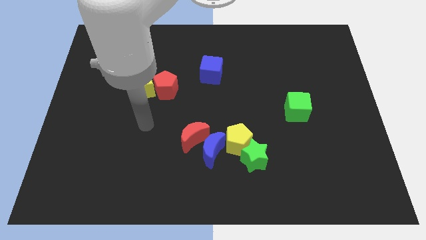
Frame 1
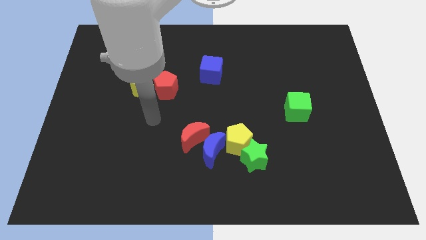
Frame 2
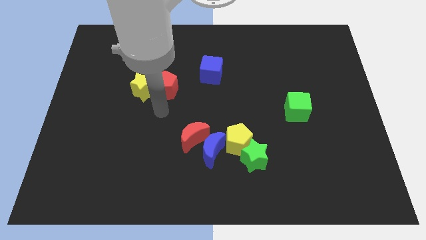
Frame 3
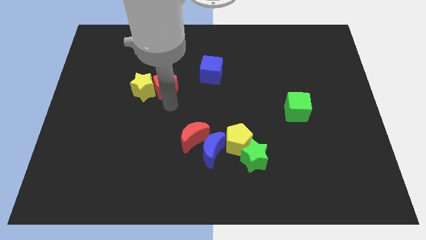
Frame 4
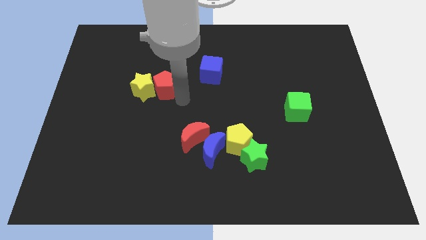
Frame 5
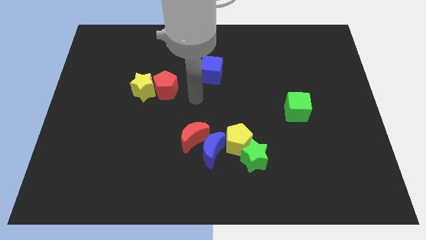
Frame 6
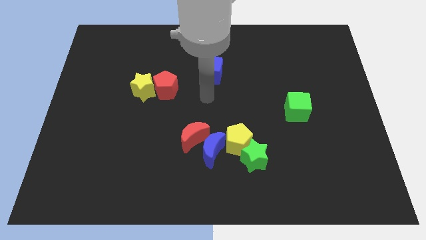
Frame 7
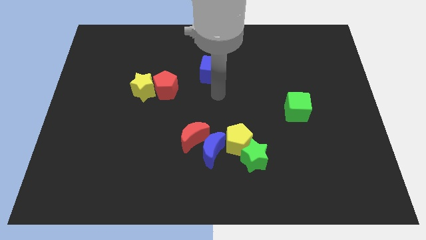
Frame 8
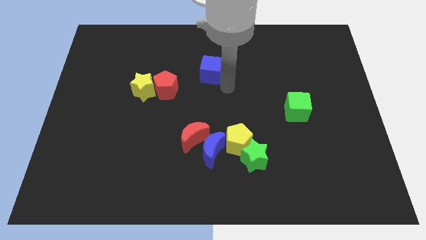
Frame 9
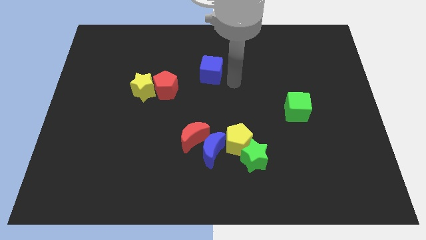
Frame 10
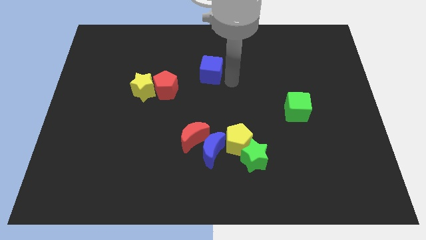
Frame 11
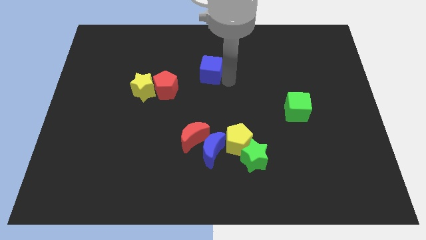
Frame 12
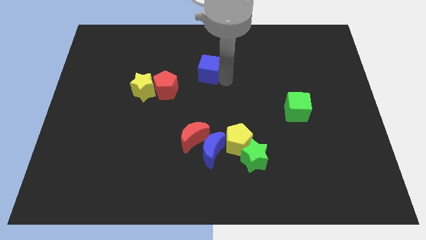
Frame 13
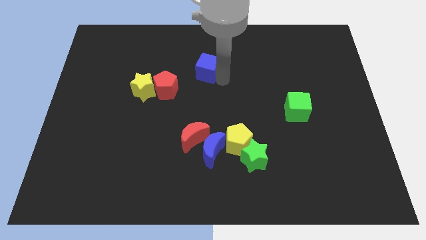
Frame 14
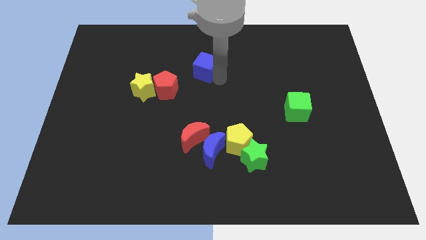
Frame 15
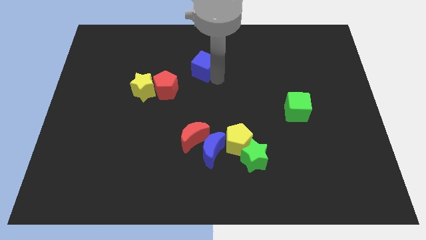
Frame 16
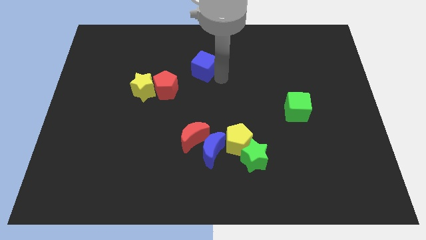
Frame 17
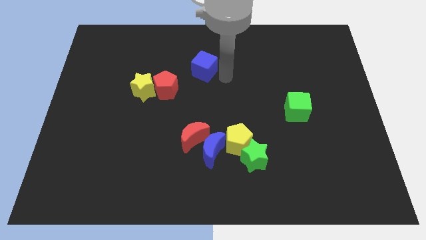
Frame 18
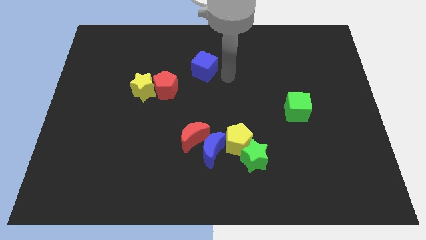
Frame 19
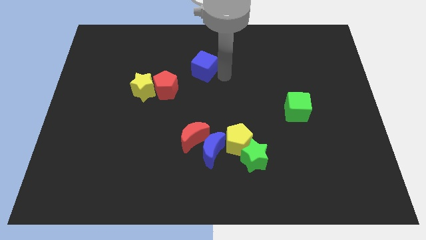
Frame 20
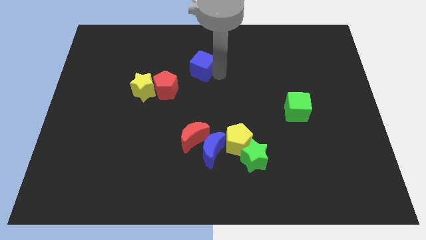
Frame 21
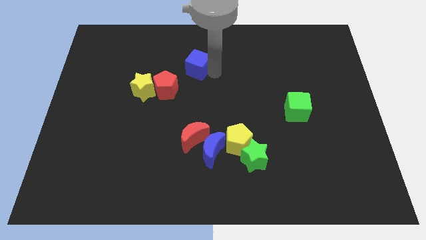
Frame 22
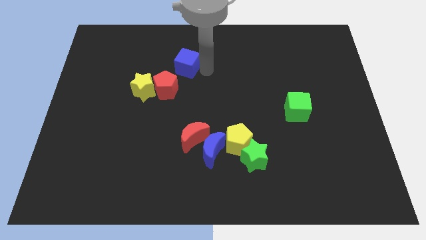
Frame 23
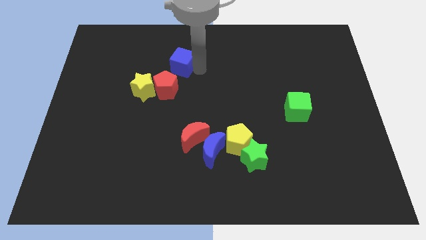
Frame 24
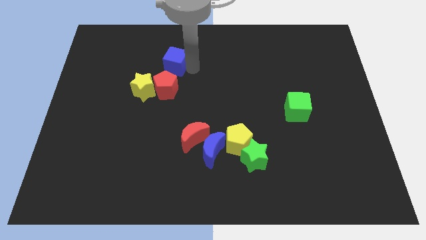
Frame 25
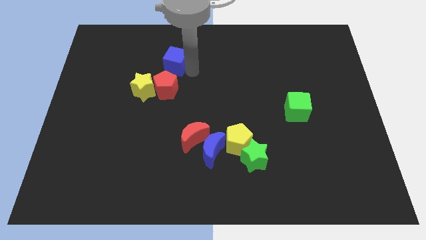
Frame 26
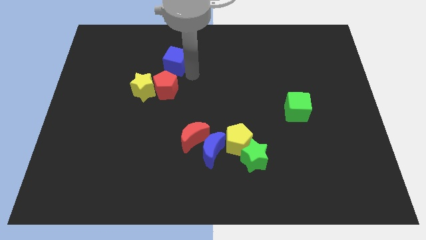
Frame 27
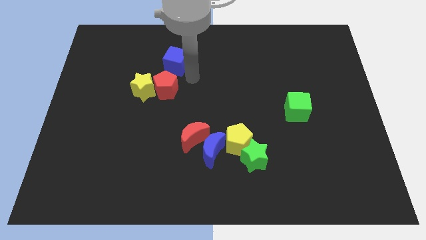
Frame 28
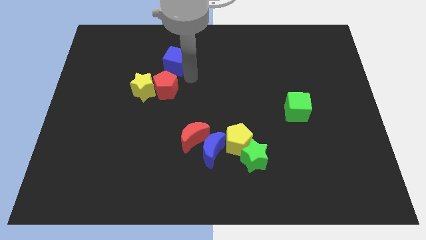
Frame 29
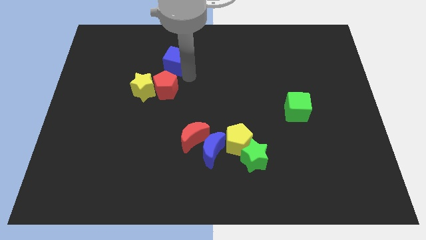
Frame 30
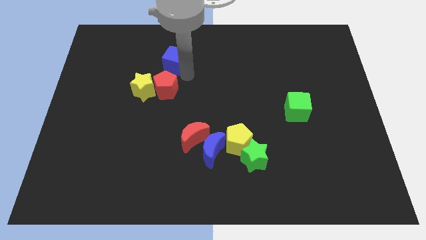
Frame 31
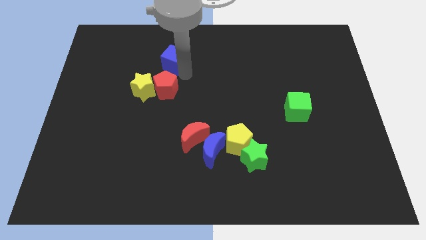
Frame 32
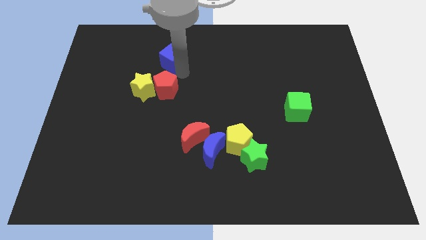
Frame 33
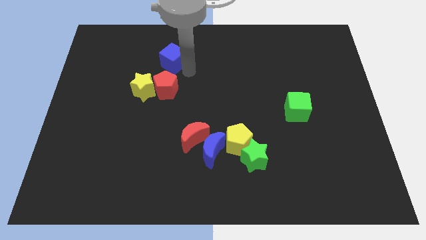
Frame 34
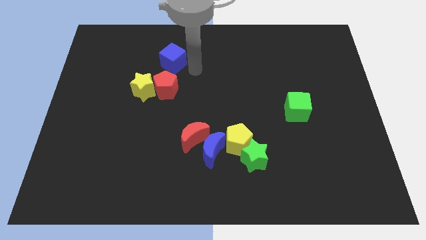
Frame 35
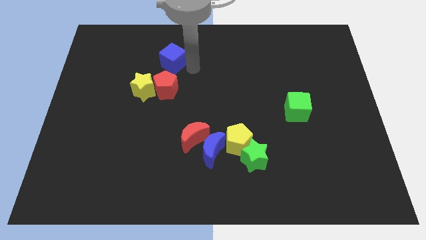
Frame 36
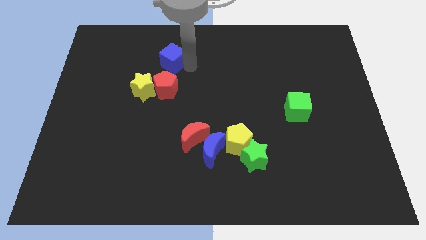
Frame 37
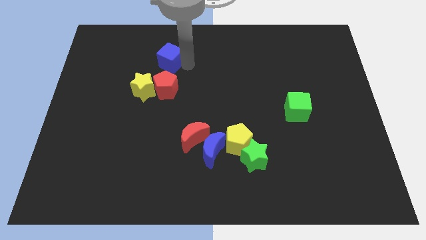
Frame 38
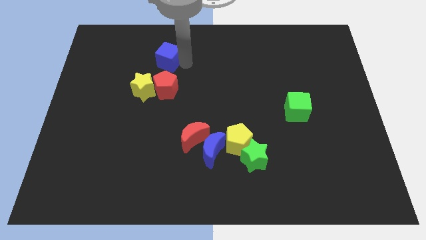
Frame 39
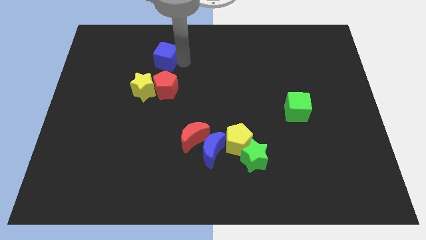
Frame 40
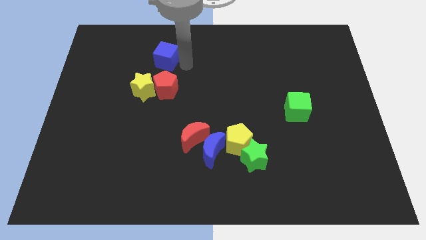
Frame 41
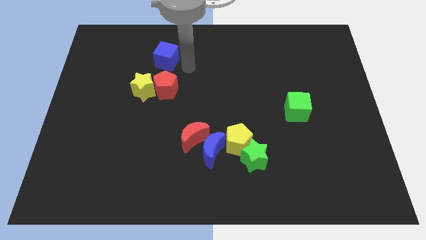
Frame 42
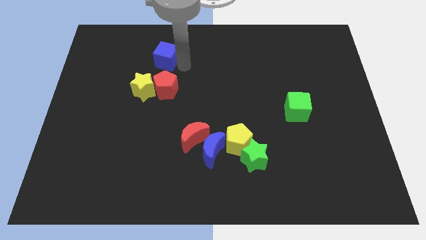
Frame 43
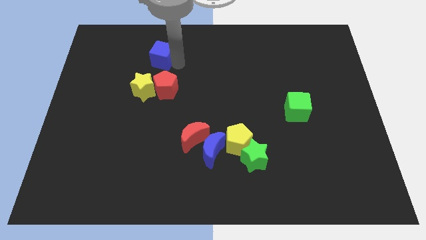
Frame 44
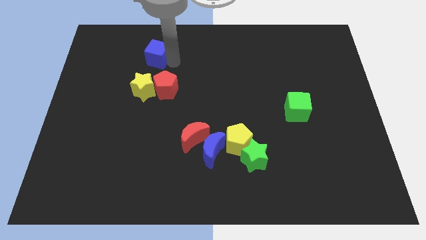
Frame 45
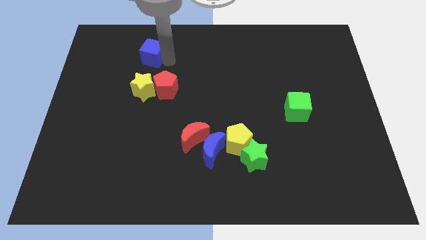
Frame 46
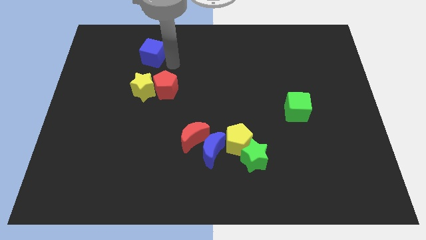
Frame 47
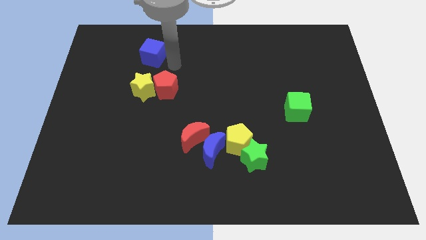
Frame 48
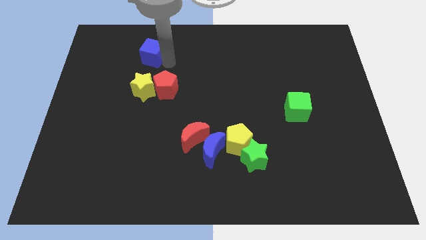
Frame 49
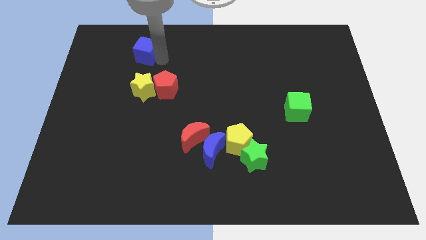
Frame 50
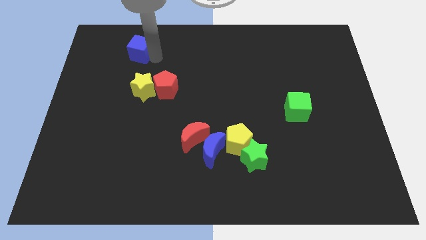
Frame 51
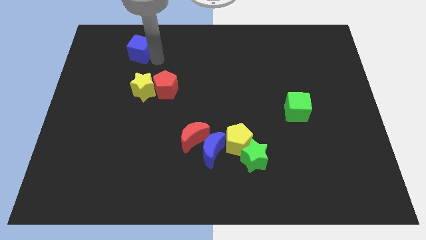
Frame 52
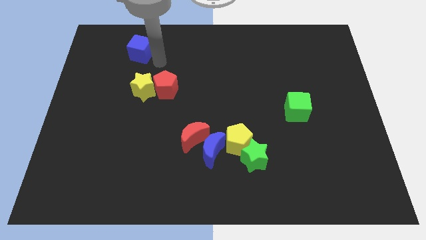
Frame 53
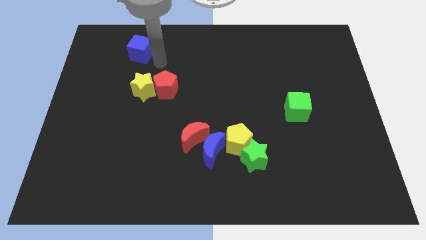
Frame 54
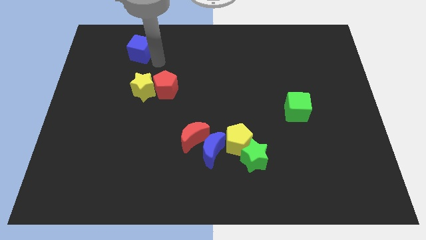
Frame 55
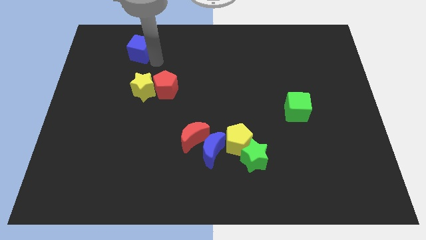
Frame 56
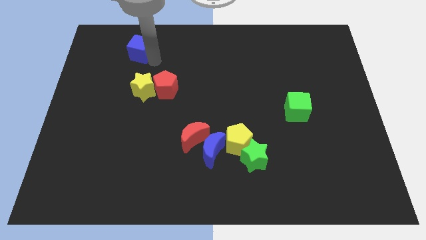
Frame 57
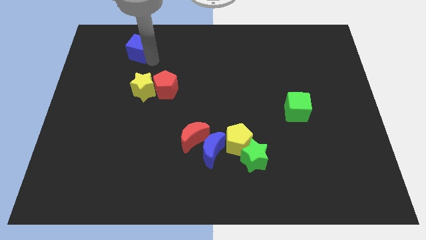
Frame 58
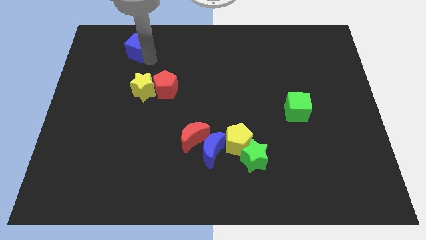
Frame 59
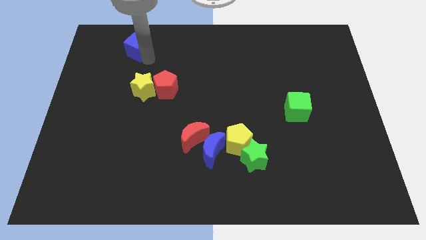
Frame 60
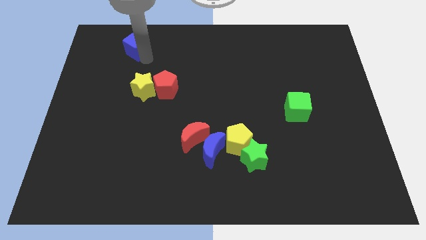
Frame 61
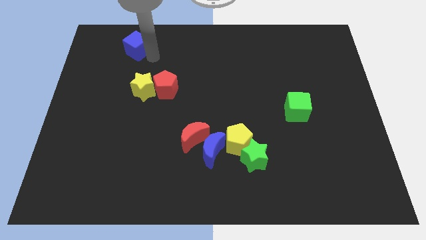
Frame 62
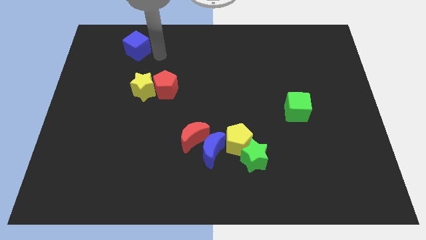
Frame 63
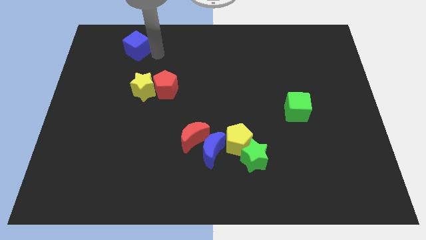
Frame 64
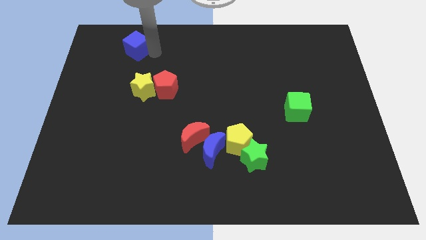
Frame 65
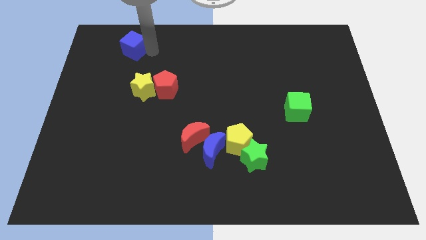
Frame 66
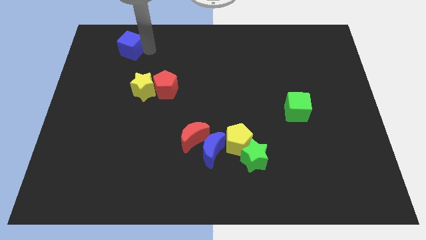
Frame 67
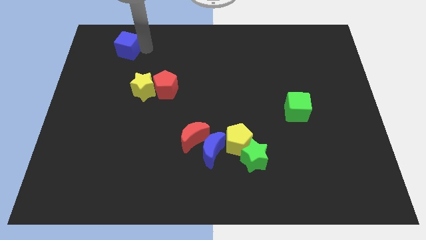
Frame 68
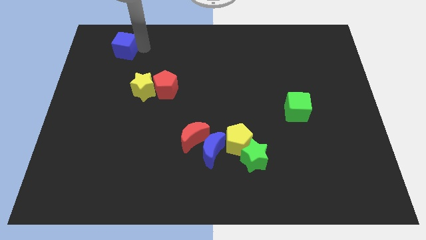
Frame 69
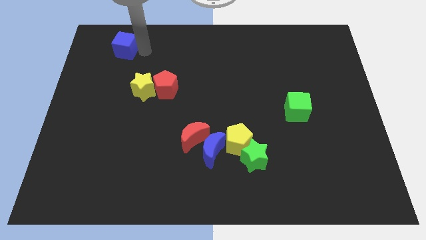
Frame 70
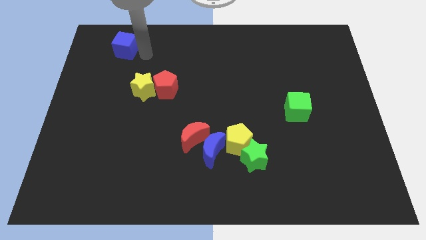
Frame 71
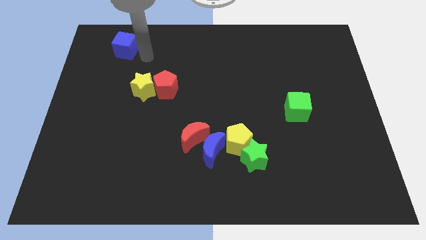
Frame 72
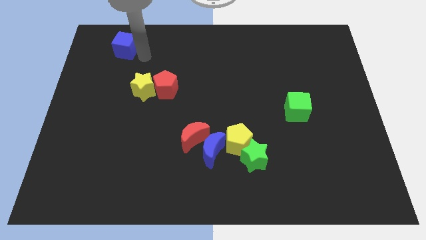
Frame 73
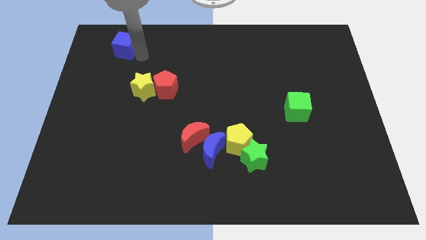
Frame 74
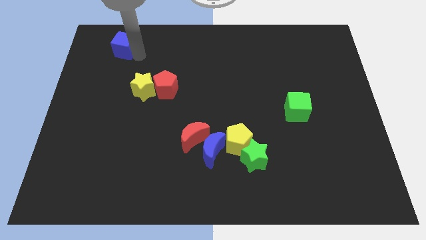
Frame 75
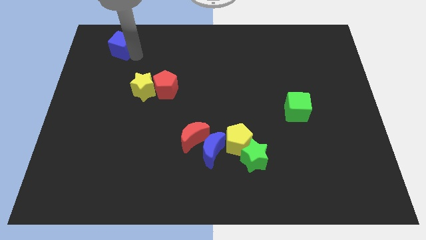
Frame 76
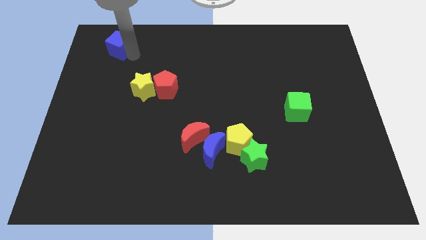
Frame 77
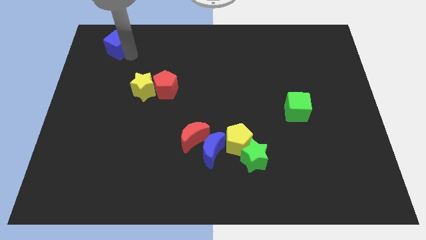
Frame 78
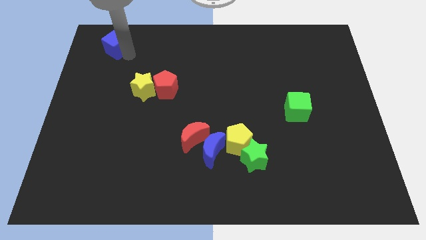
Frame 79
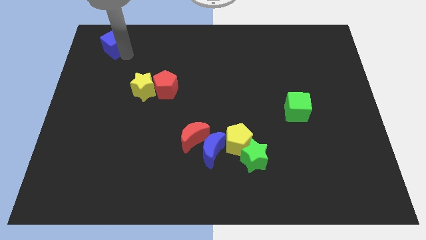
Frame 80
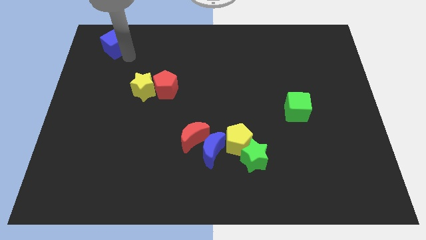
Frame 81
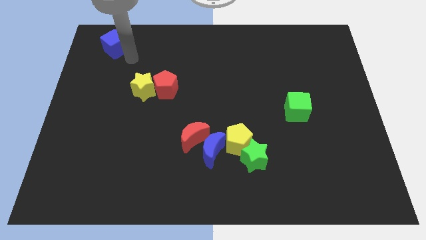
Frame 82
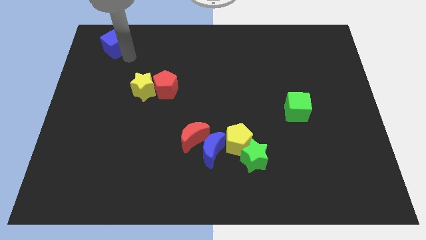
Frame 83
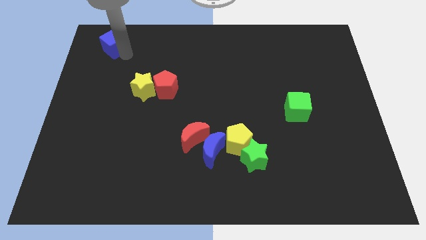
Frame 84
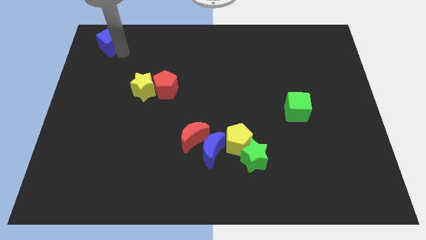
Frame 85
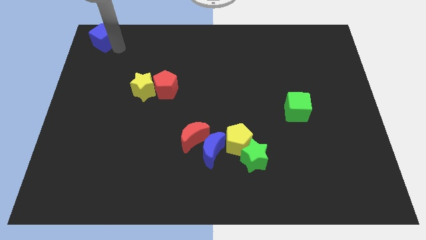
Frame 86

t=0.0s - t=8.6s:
move the blue cube to the top left corner
